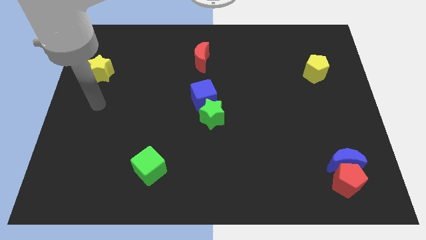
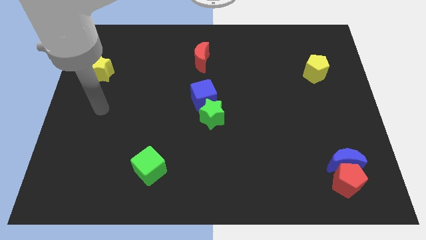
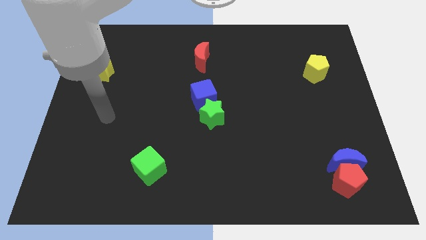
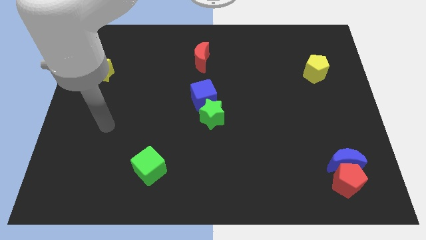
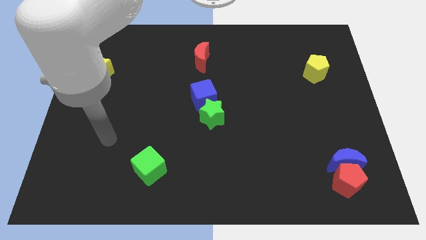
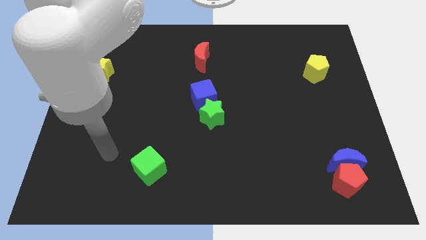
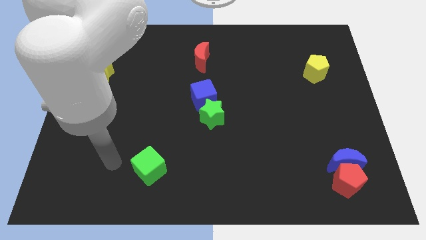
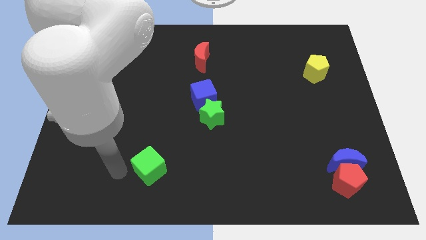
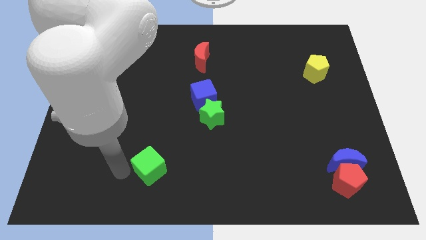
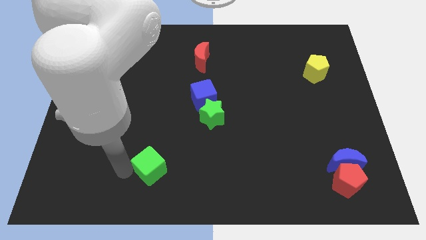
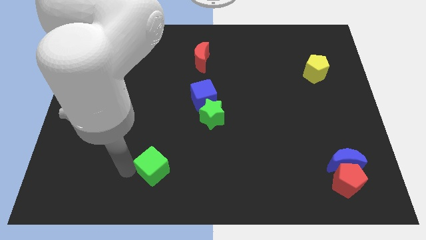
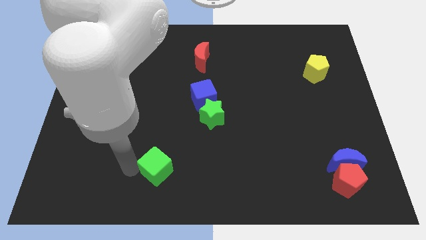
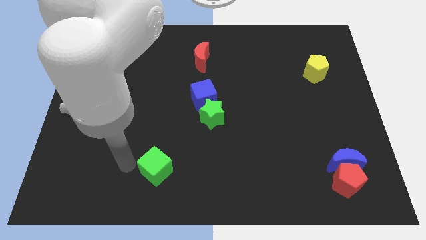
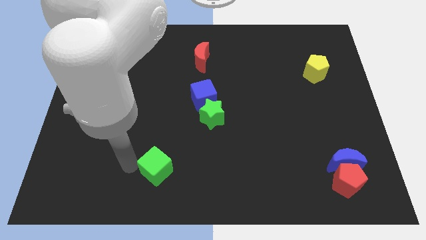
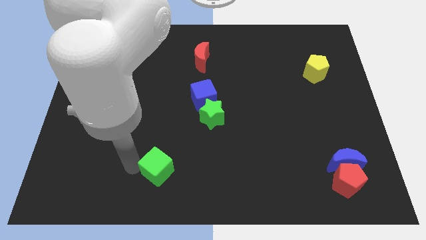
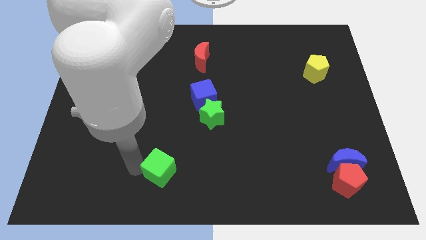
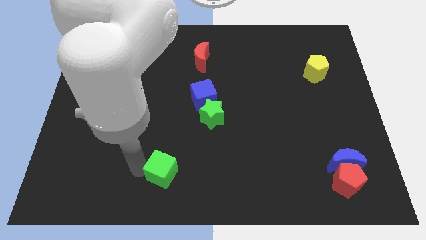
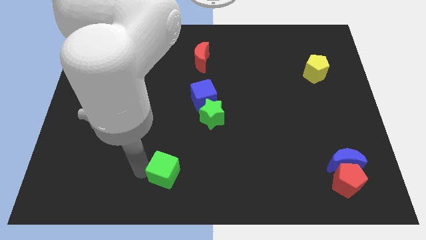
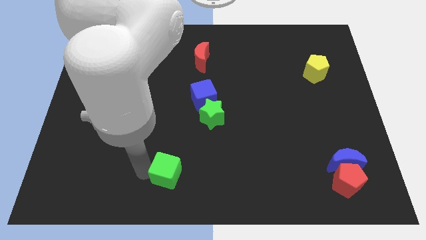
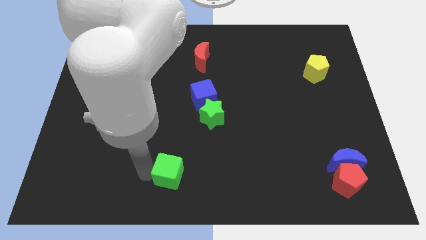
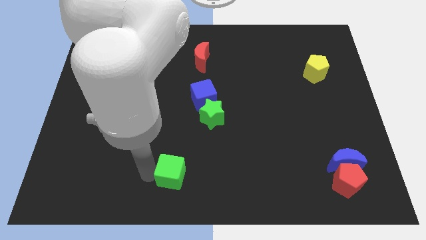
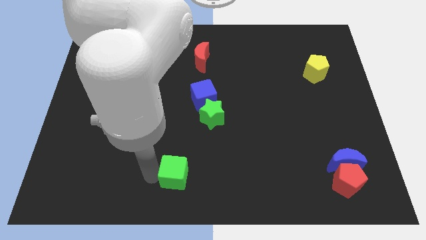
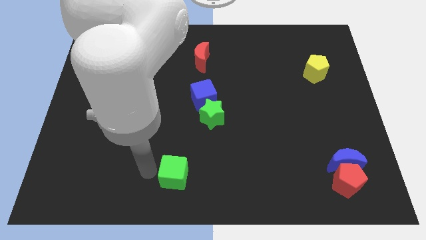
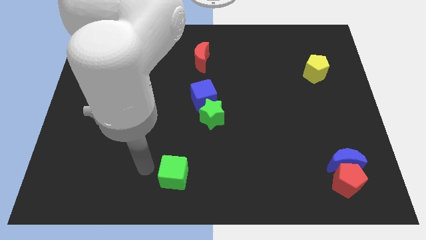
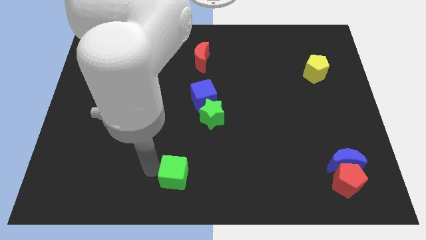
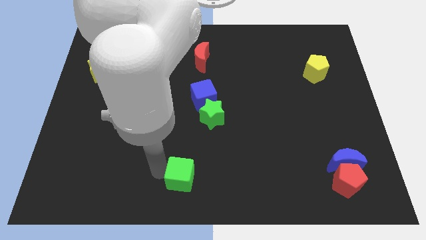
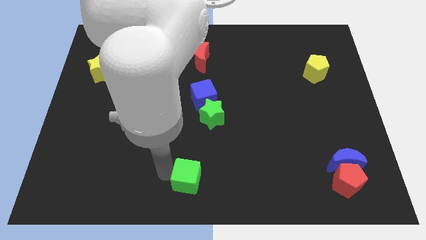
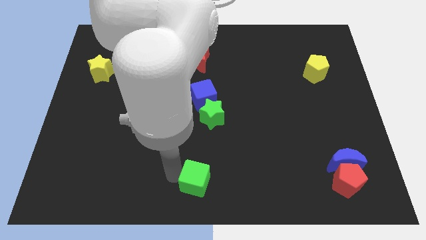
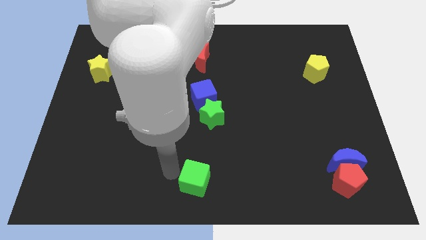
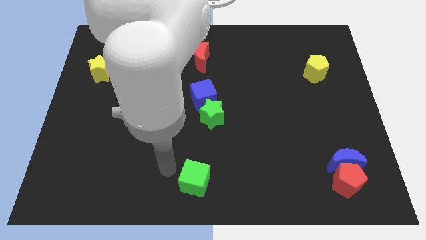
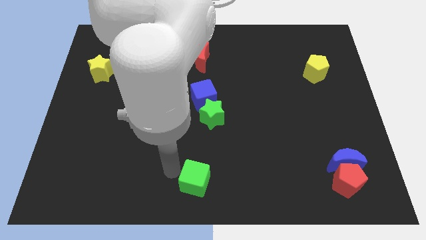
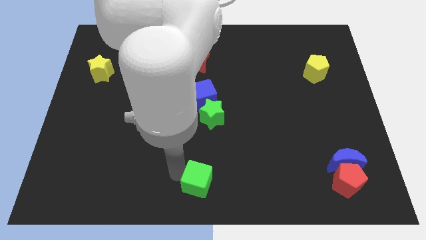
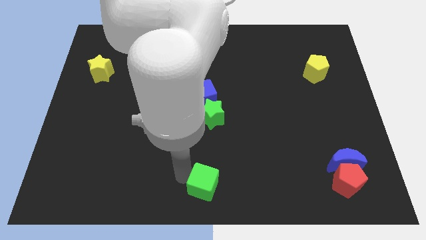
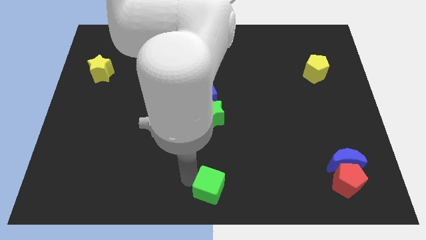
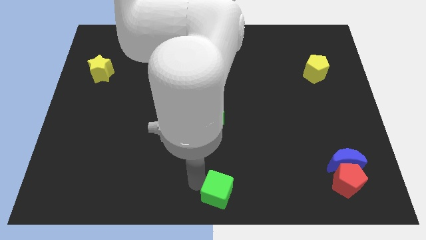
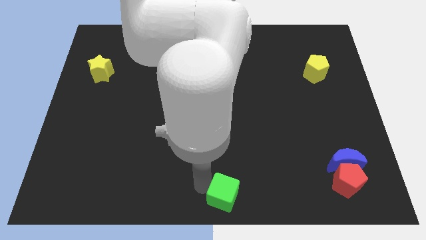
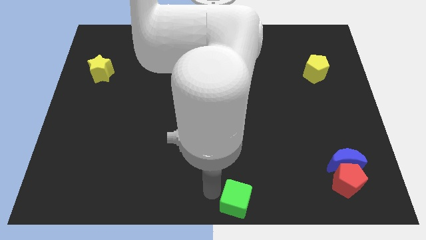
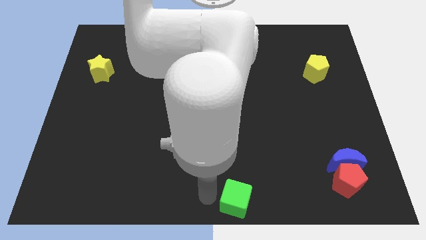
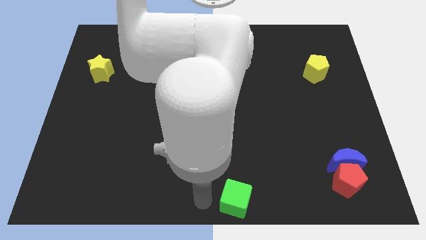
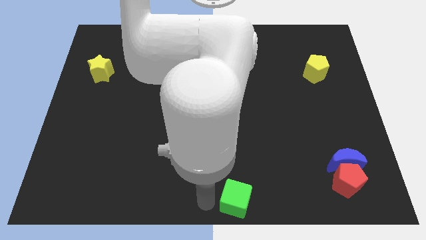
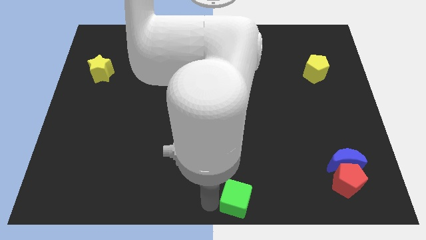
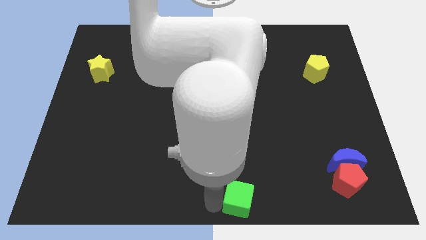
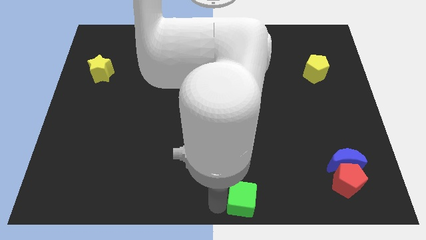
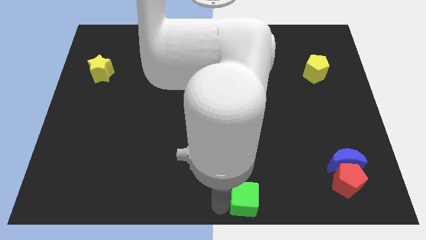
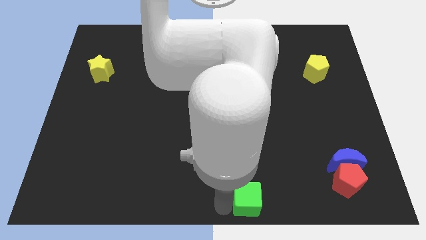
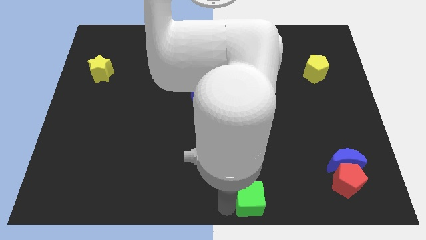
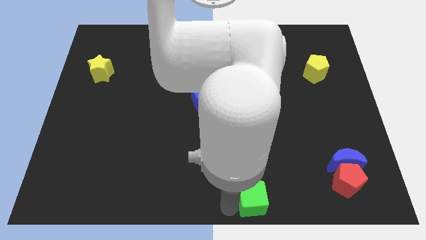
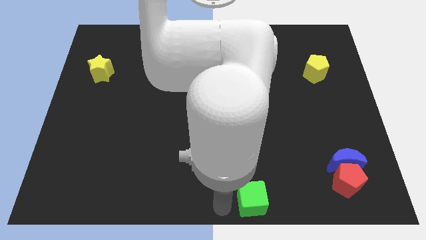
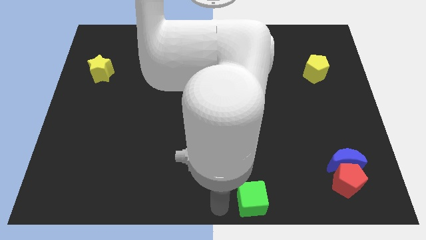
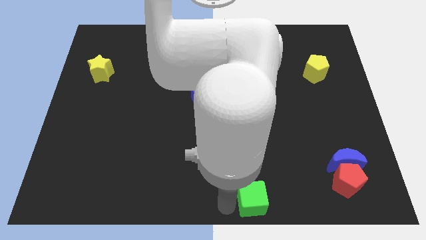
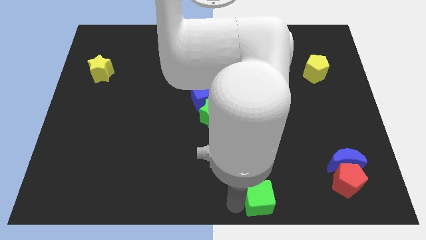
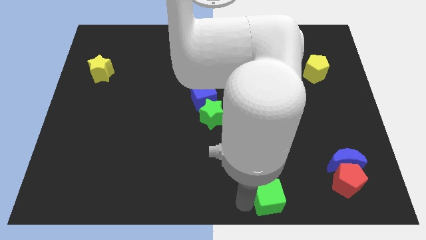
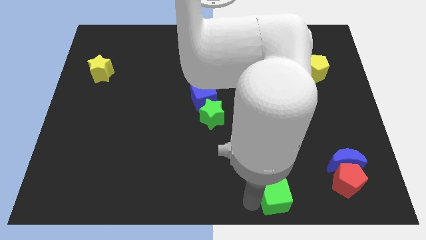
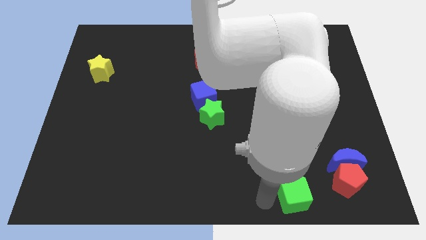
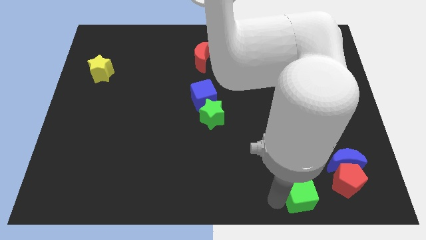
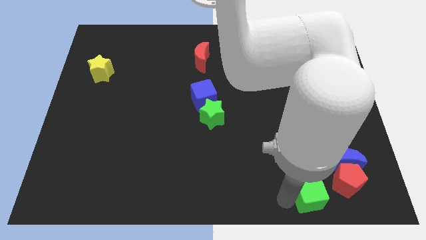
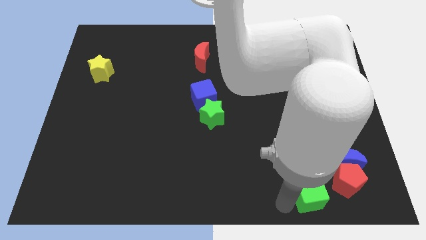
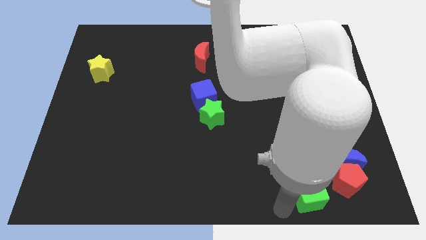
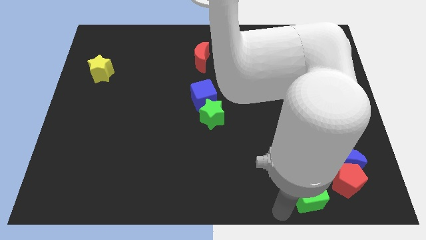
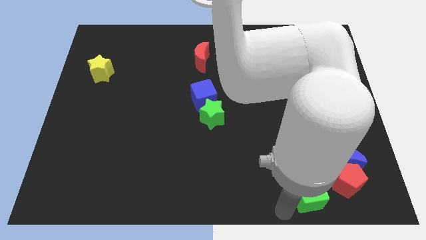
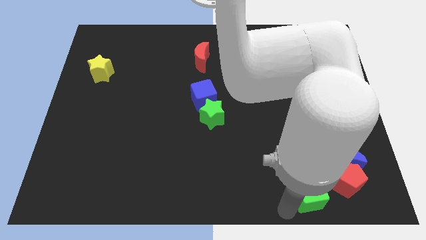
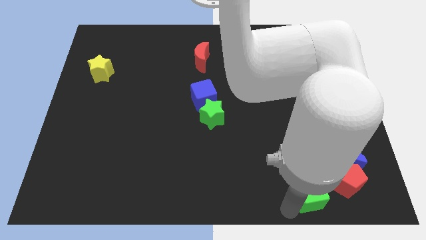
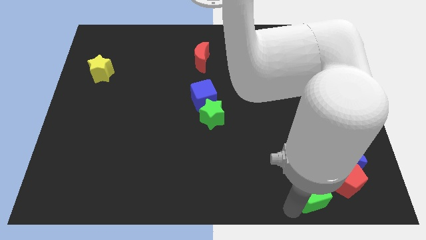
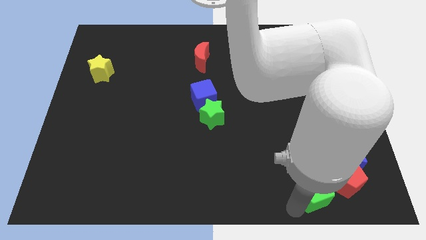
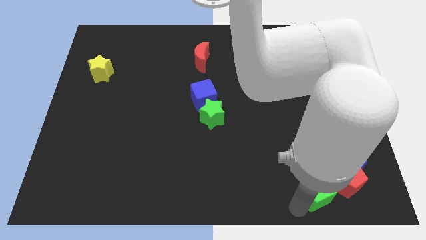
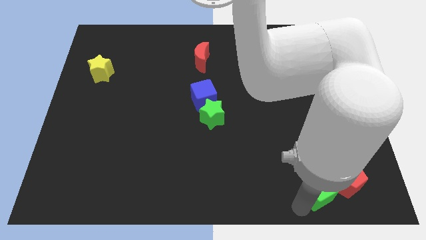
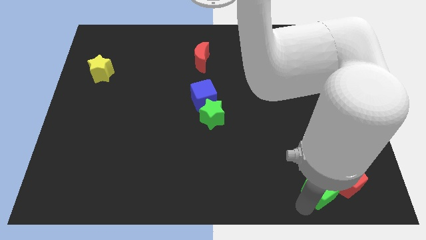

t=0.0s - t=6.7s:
move the green cube close to the red pentagon

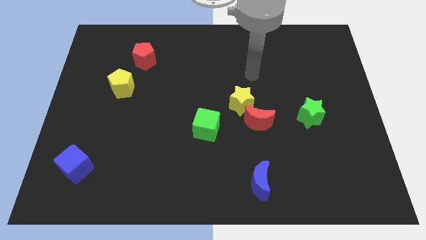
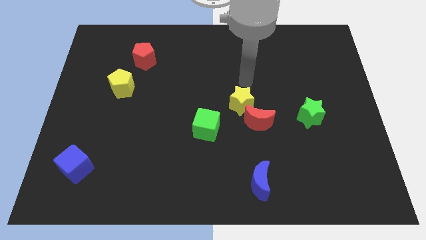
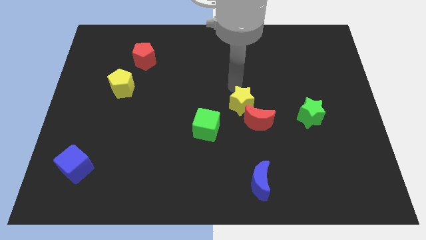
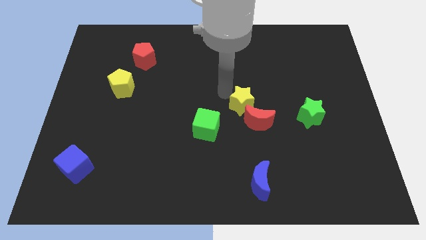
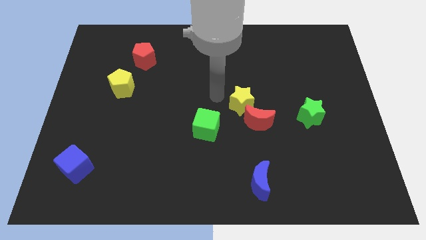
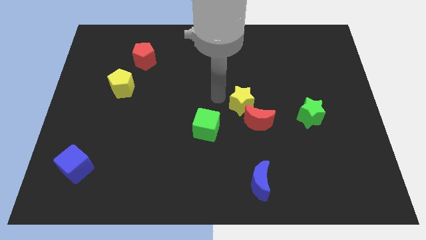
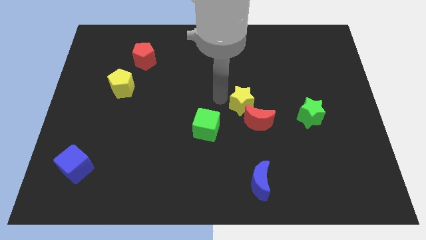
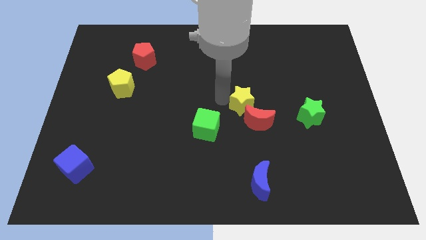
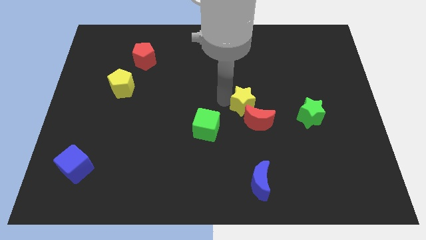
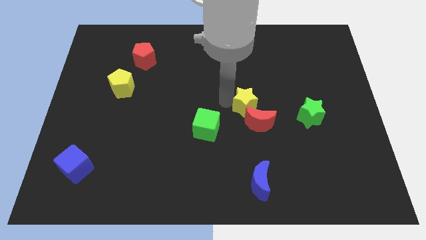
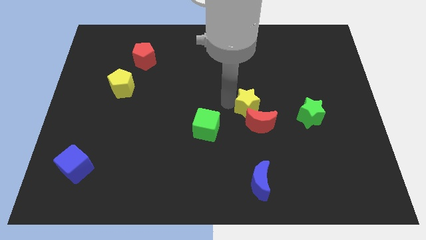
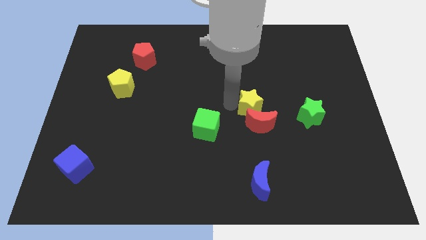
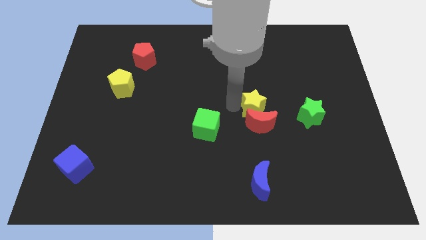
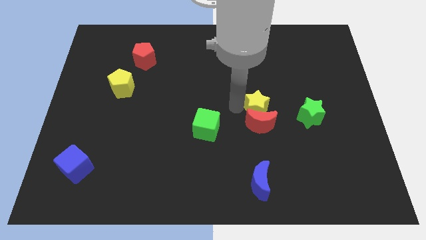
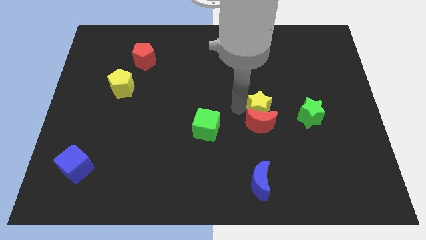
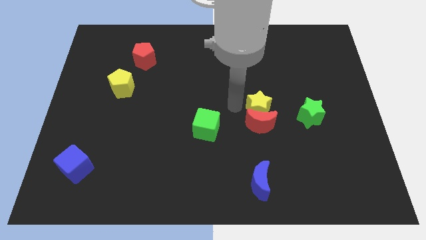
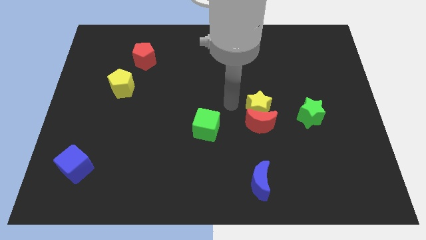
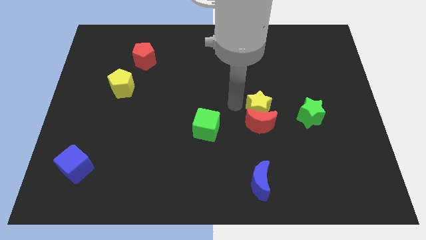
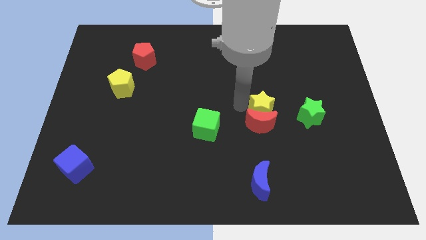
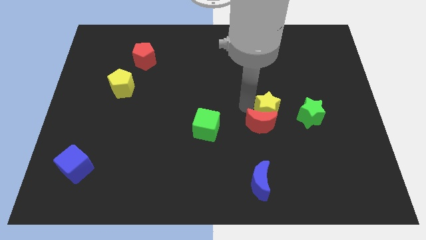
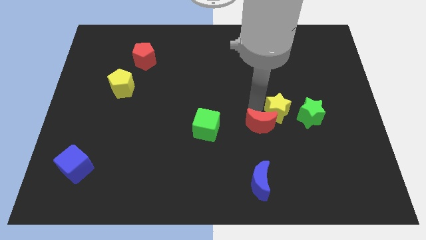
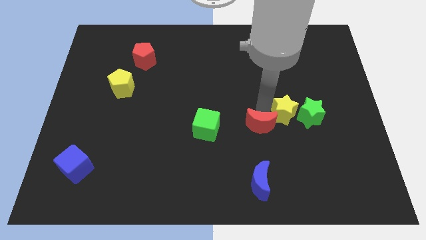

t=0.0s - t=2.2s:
move the yellow star next to the green star
